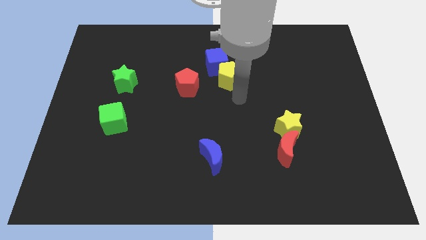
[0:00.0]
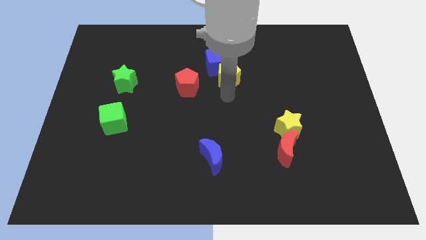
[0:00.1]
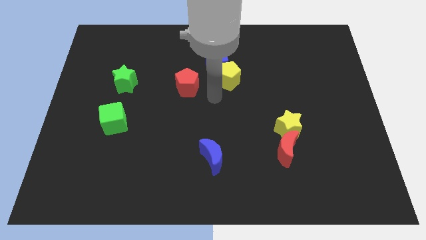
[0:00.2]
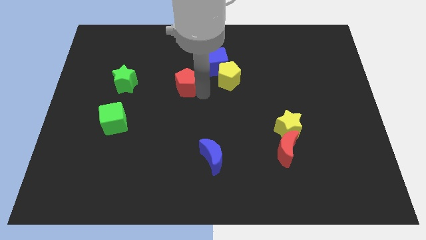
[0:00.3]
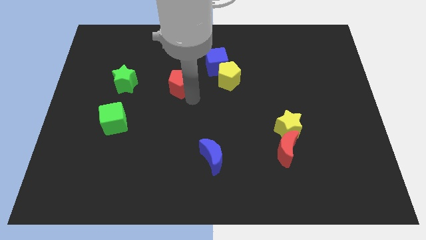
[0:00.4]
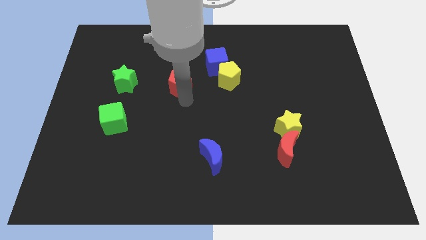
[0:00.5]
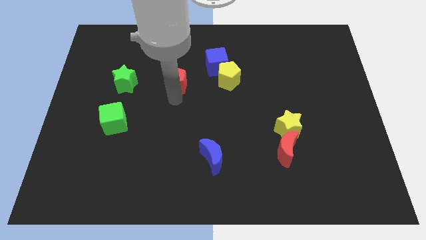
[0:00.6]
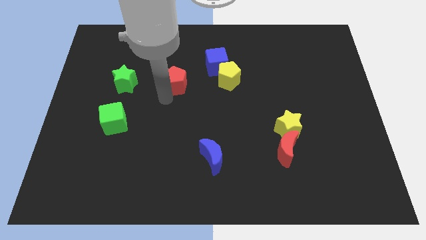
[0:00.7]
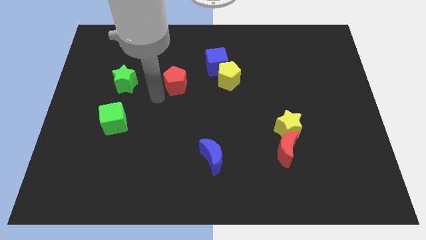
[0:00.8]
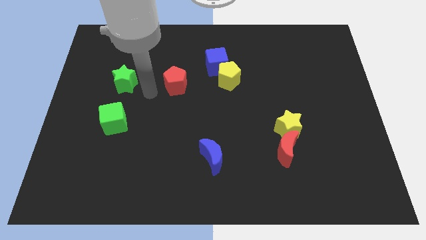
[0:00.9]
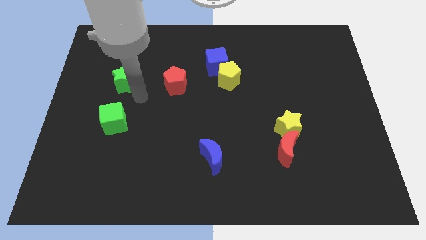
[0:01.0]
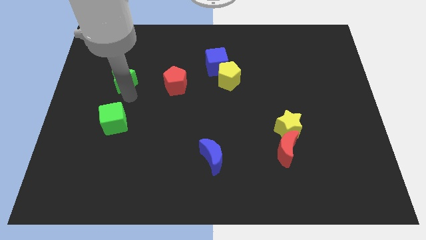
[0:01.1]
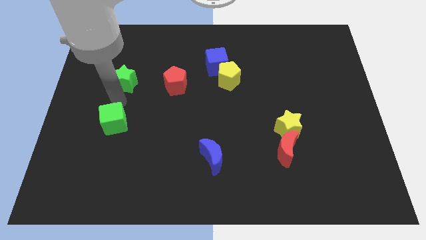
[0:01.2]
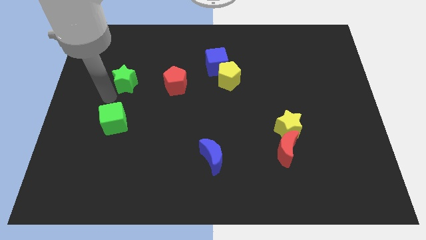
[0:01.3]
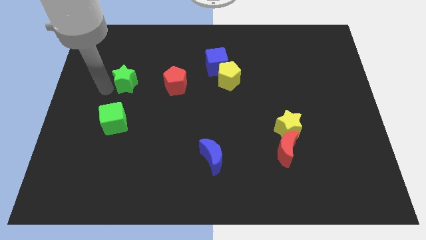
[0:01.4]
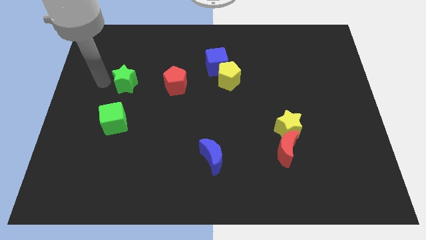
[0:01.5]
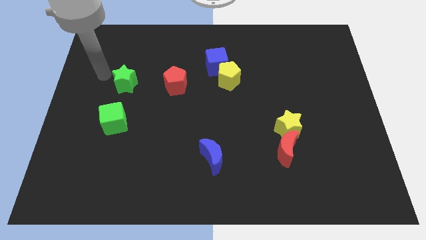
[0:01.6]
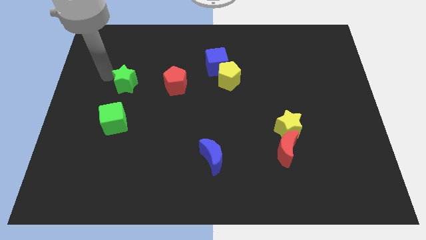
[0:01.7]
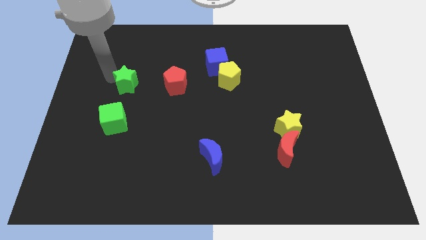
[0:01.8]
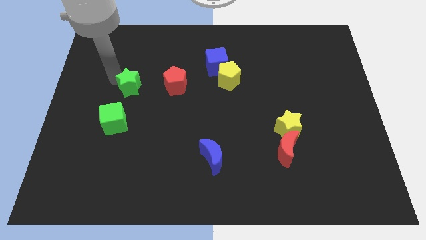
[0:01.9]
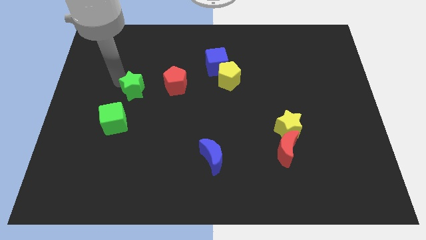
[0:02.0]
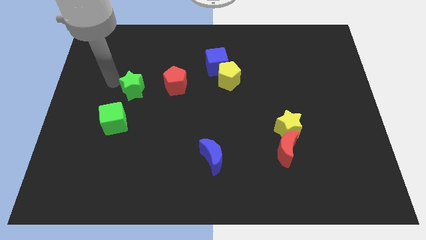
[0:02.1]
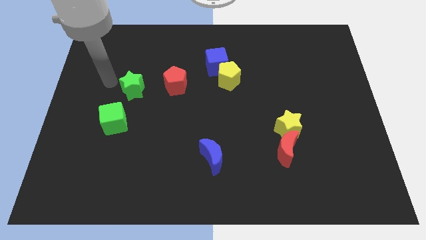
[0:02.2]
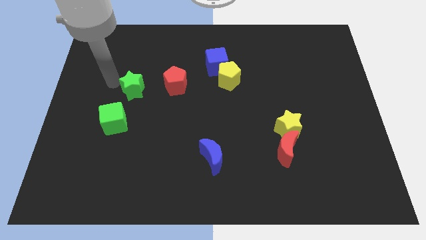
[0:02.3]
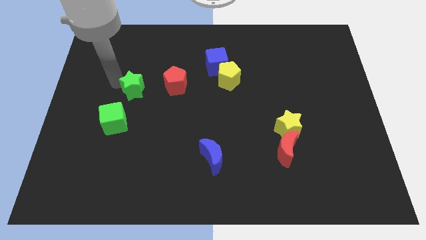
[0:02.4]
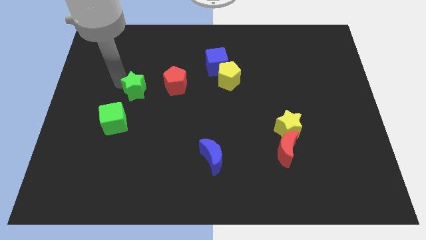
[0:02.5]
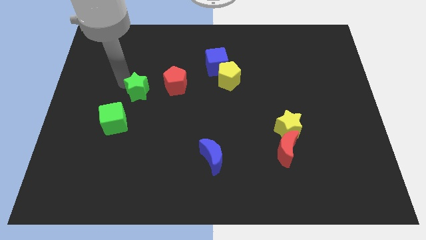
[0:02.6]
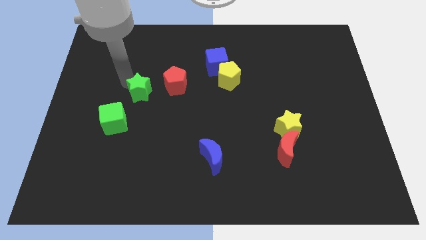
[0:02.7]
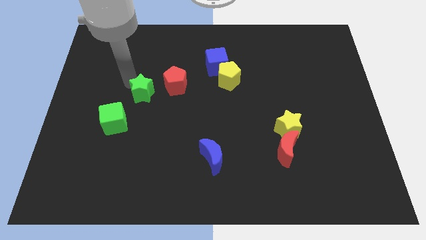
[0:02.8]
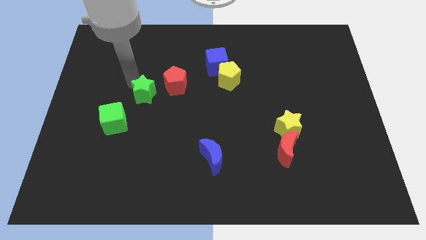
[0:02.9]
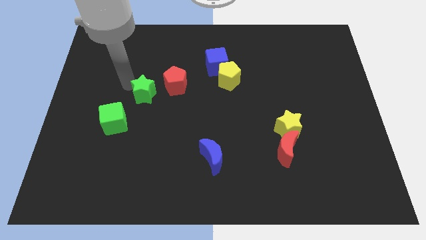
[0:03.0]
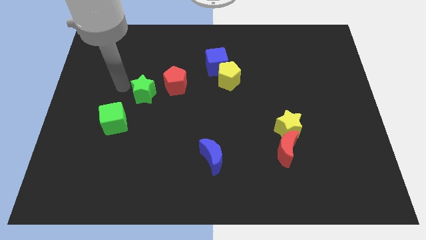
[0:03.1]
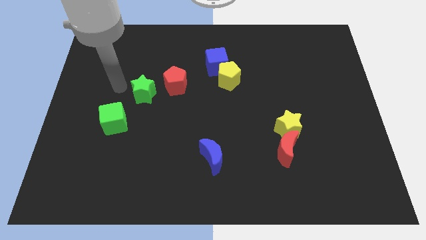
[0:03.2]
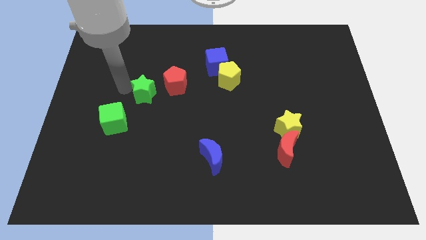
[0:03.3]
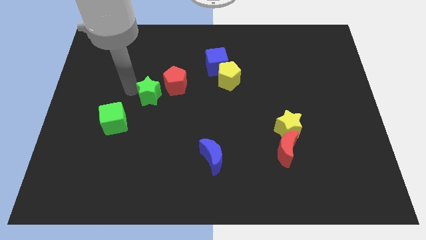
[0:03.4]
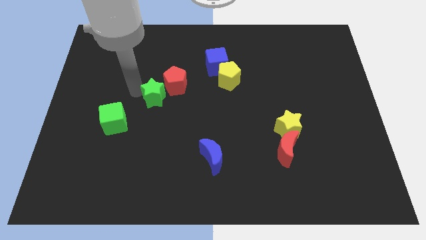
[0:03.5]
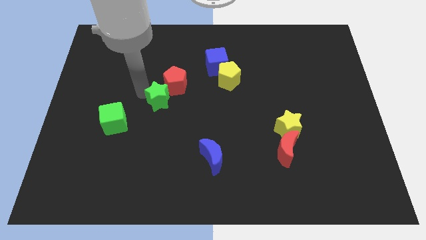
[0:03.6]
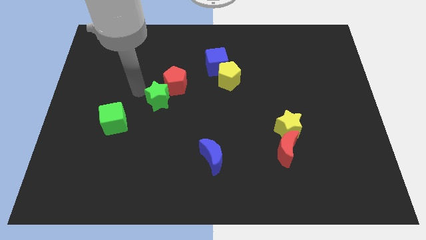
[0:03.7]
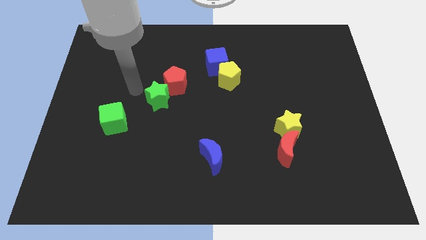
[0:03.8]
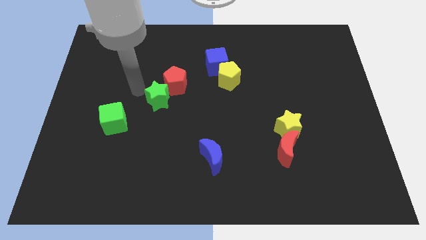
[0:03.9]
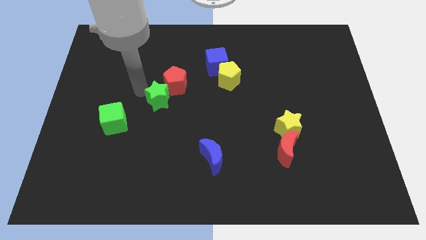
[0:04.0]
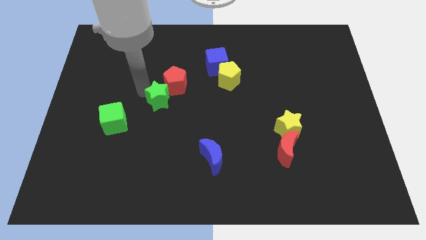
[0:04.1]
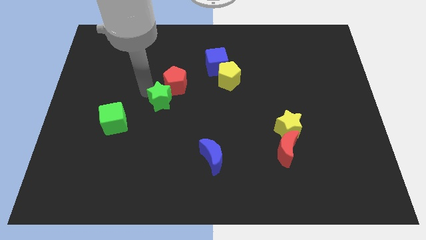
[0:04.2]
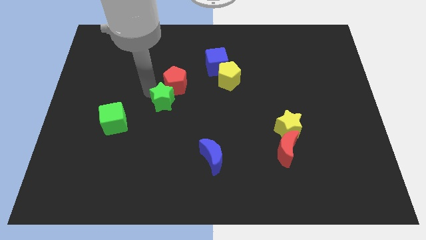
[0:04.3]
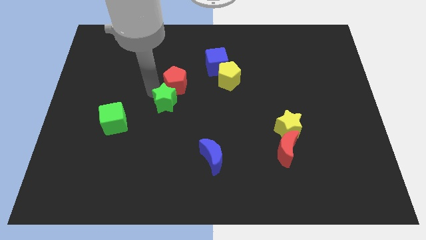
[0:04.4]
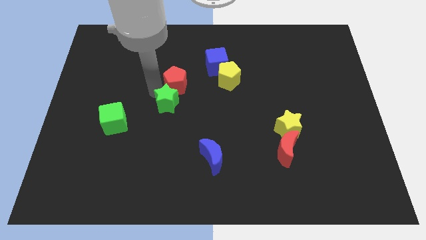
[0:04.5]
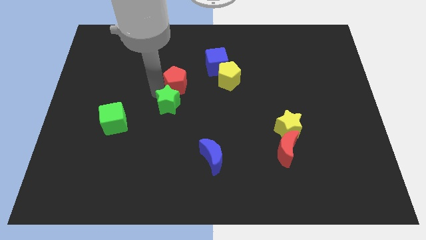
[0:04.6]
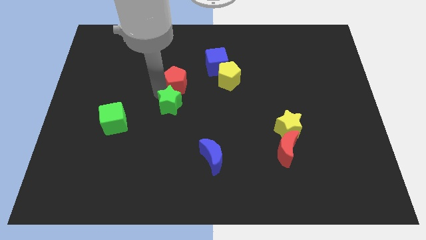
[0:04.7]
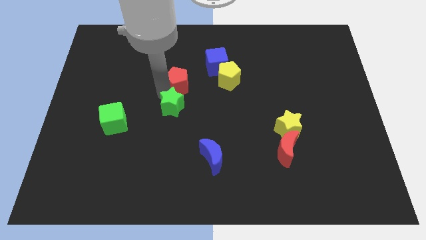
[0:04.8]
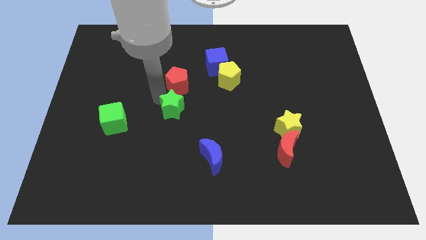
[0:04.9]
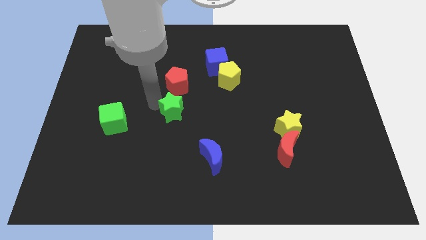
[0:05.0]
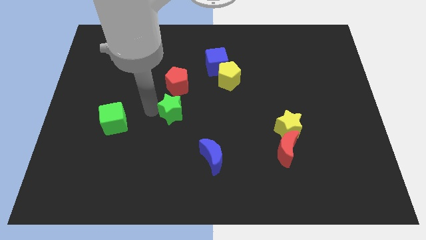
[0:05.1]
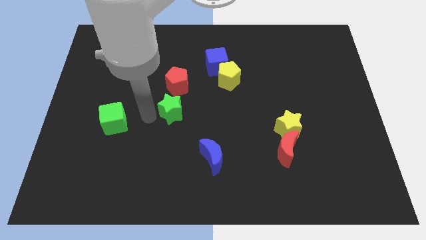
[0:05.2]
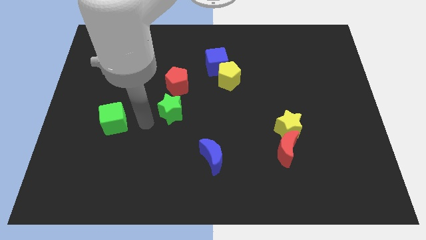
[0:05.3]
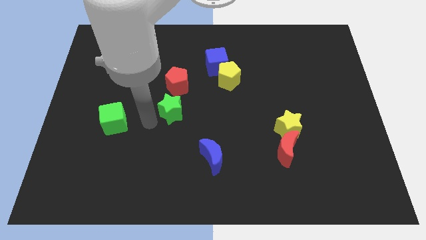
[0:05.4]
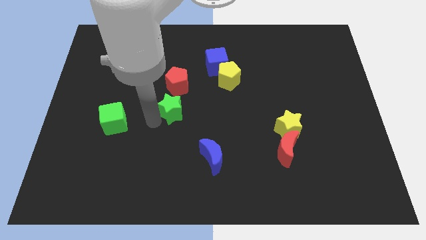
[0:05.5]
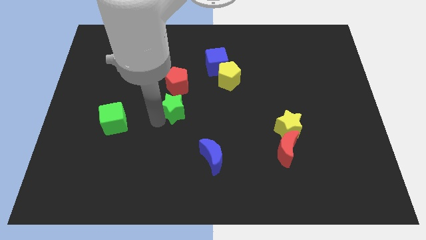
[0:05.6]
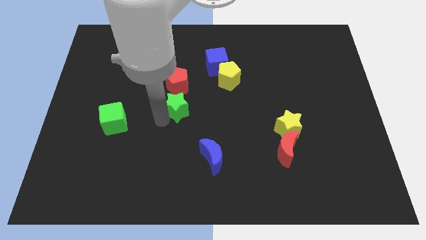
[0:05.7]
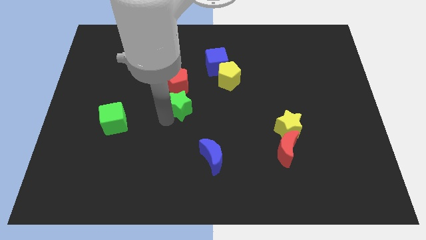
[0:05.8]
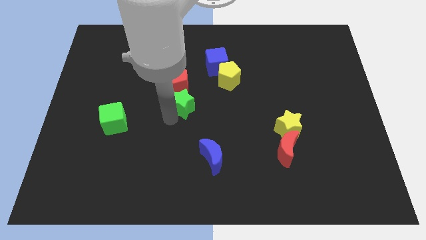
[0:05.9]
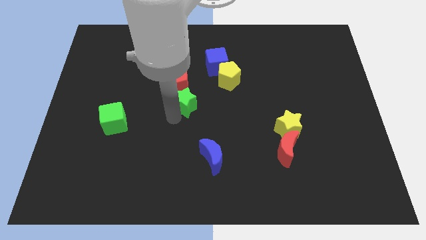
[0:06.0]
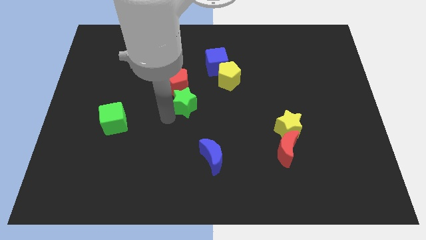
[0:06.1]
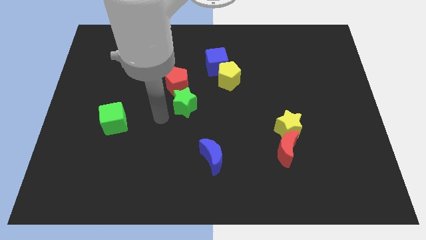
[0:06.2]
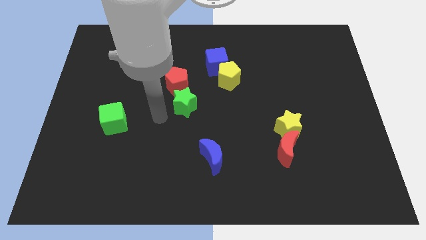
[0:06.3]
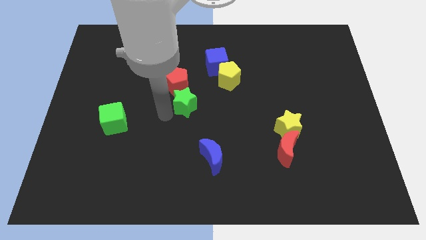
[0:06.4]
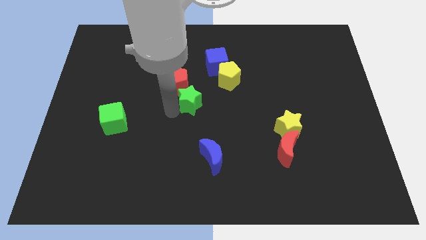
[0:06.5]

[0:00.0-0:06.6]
put the green star to the bottom left side of the yellow pentagon
